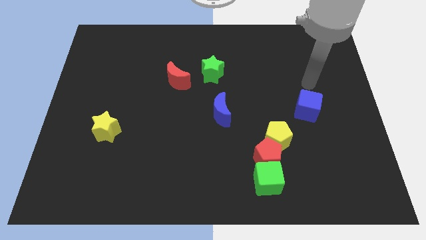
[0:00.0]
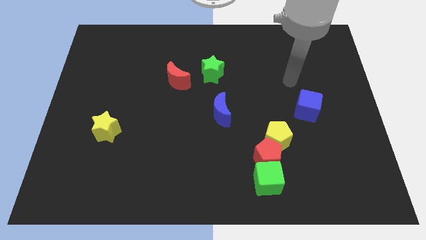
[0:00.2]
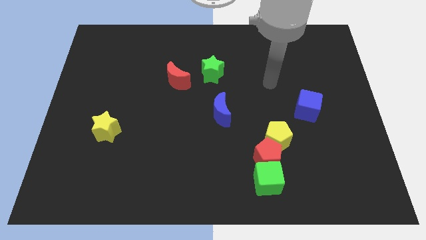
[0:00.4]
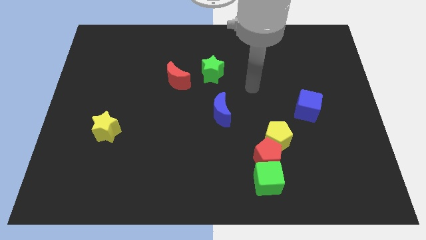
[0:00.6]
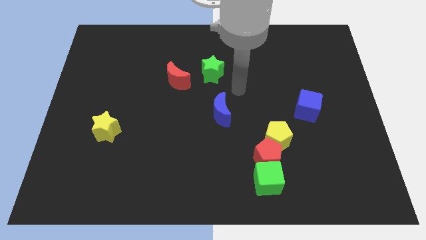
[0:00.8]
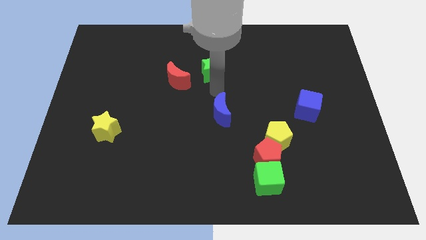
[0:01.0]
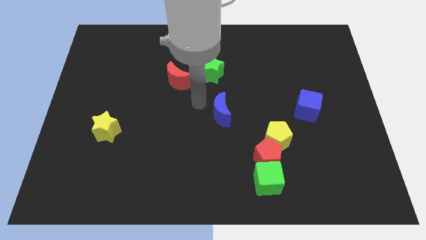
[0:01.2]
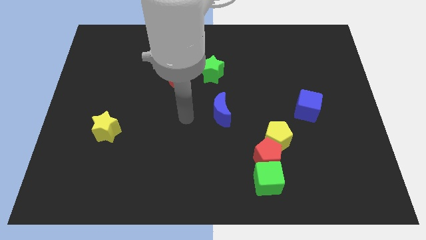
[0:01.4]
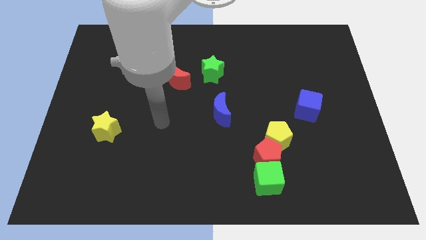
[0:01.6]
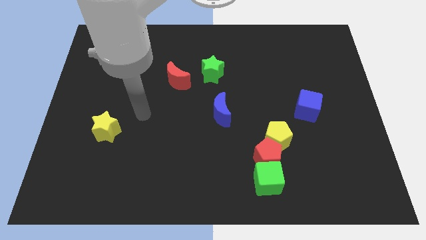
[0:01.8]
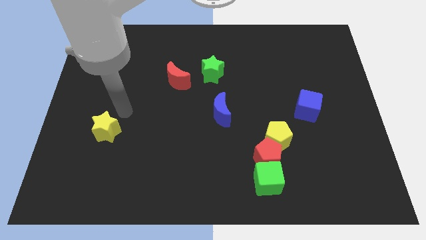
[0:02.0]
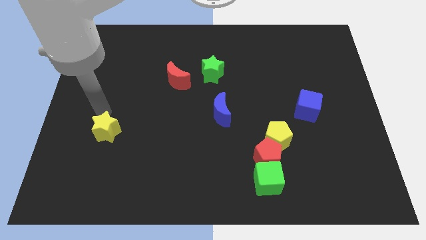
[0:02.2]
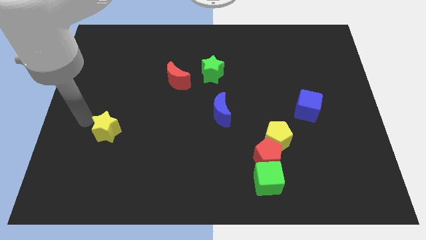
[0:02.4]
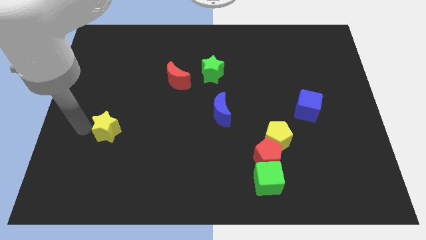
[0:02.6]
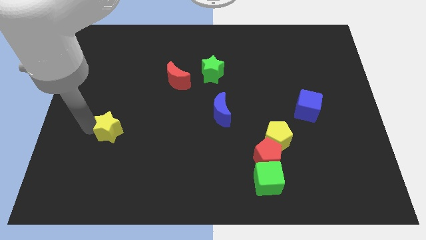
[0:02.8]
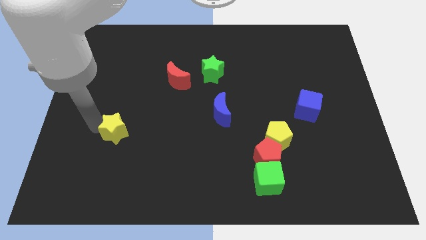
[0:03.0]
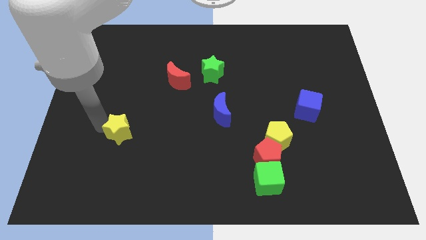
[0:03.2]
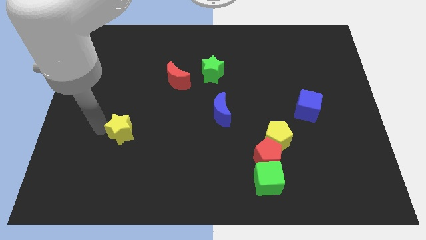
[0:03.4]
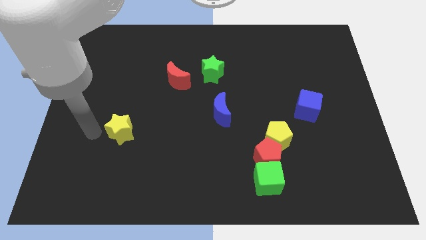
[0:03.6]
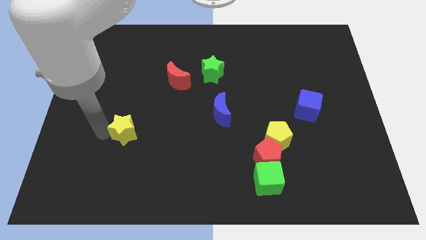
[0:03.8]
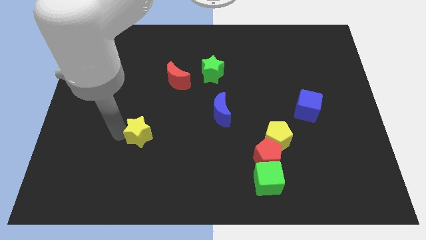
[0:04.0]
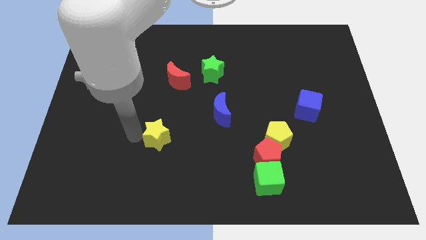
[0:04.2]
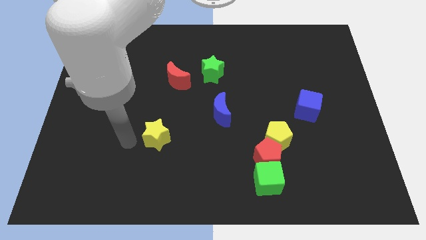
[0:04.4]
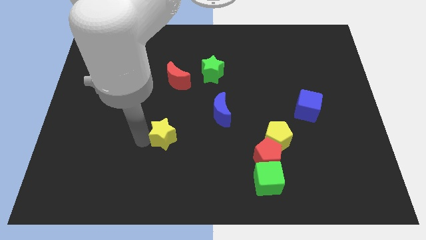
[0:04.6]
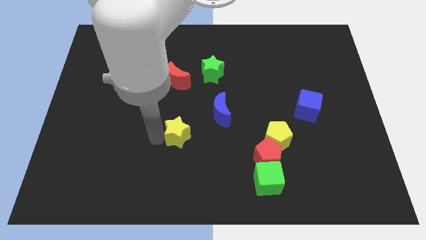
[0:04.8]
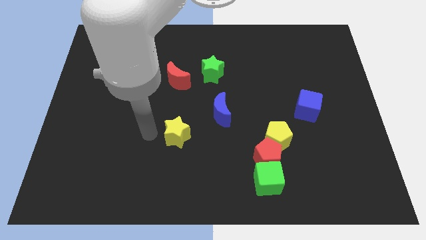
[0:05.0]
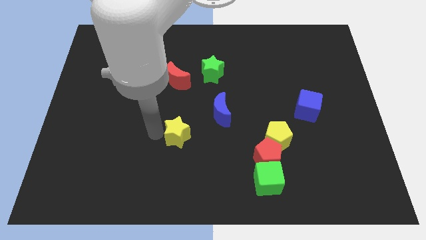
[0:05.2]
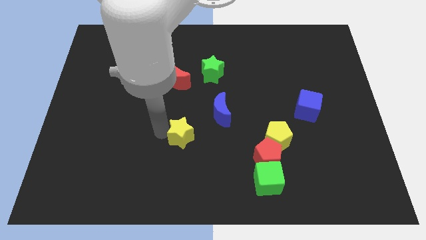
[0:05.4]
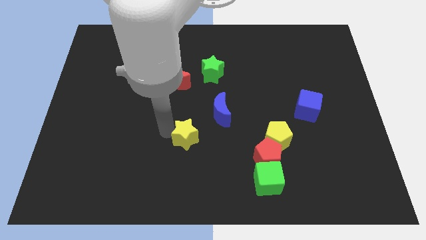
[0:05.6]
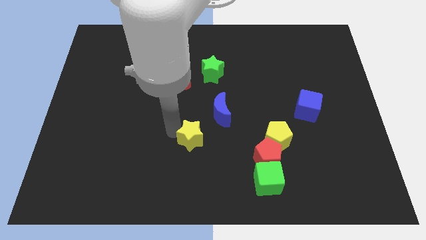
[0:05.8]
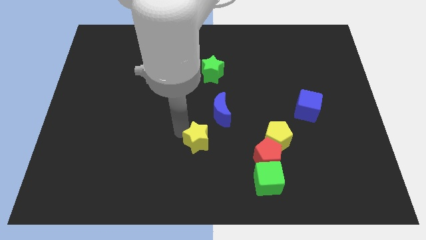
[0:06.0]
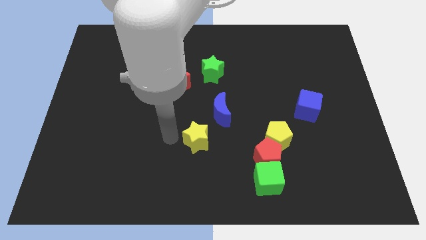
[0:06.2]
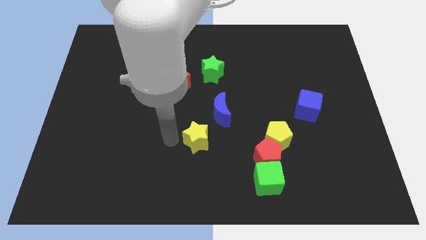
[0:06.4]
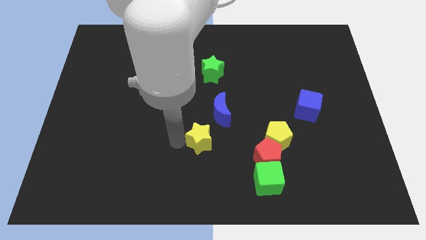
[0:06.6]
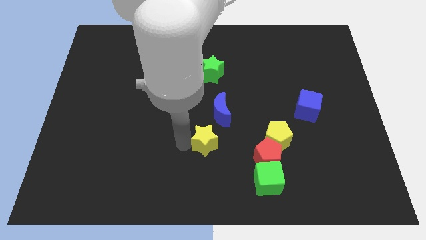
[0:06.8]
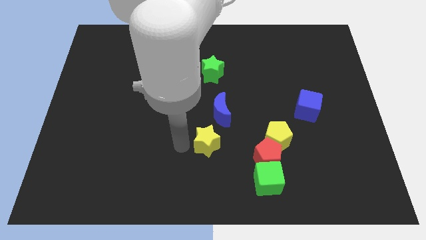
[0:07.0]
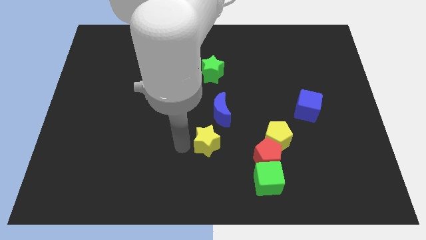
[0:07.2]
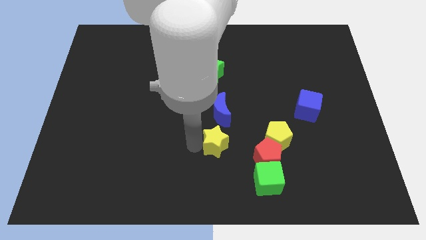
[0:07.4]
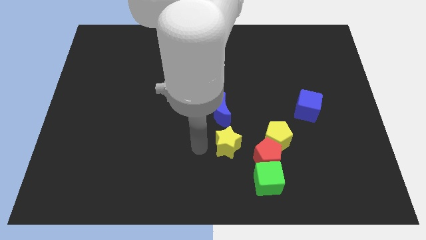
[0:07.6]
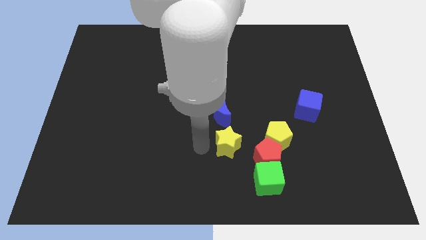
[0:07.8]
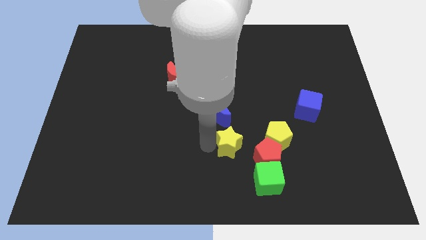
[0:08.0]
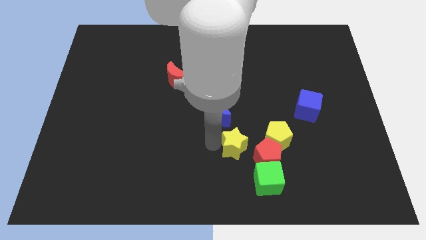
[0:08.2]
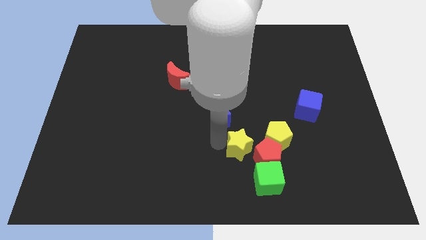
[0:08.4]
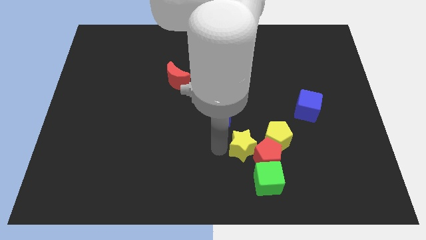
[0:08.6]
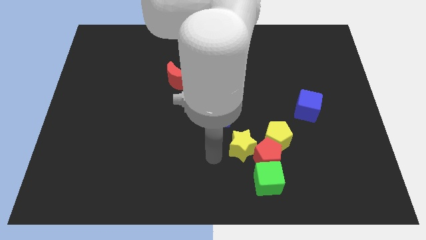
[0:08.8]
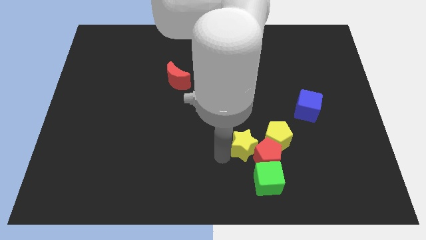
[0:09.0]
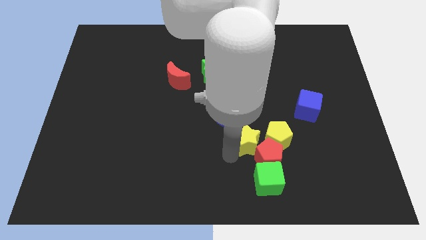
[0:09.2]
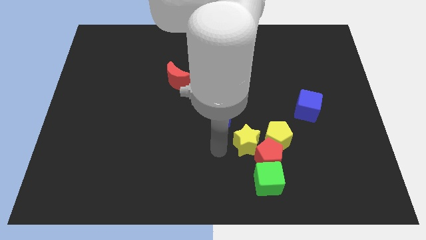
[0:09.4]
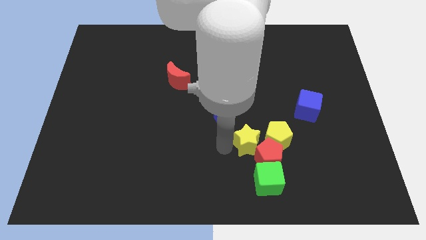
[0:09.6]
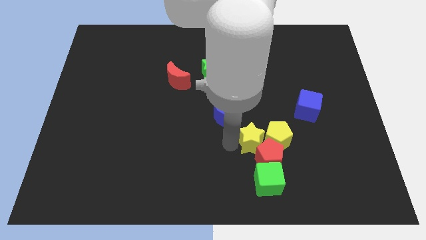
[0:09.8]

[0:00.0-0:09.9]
push the yellow star close to the yellow pentagon

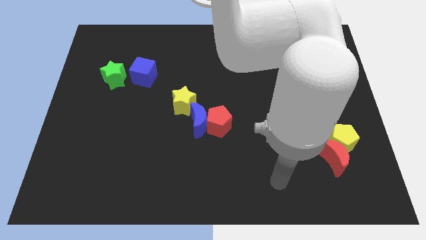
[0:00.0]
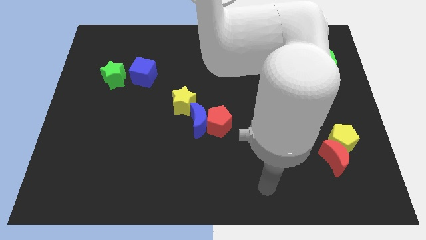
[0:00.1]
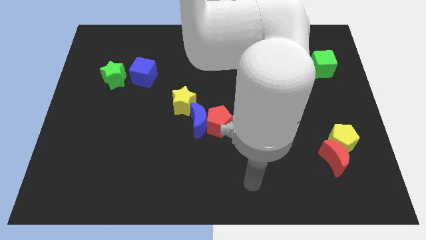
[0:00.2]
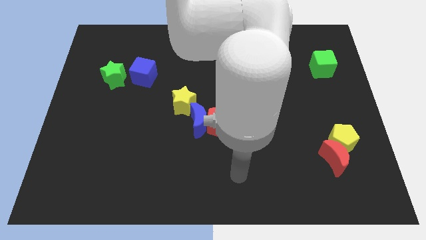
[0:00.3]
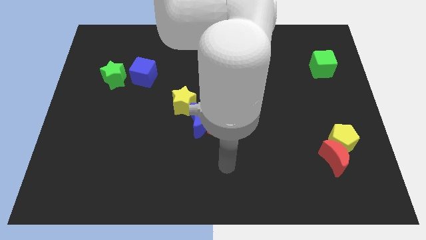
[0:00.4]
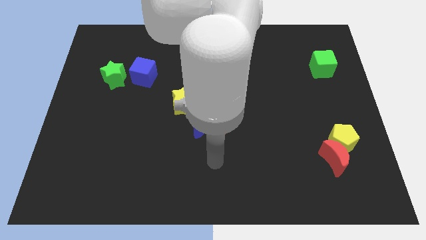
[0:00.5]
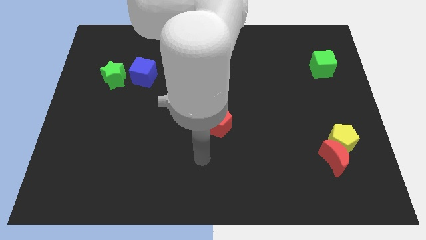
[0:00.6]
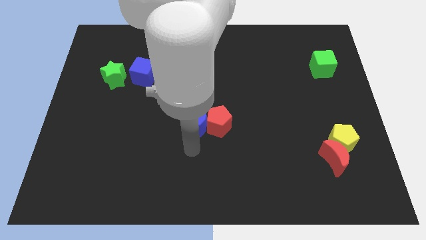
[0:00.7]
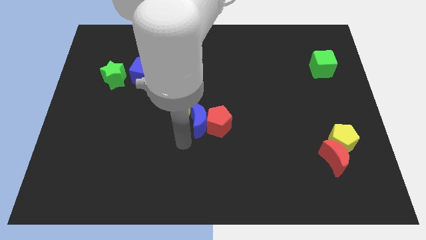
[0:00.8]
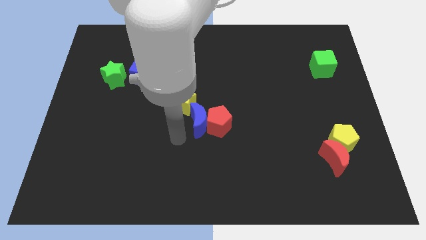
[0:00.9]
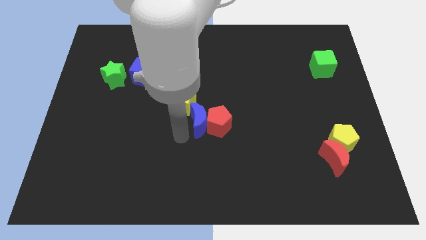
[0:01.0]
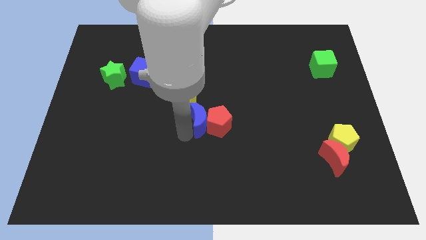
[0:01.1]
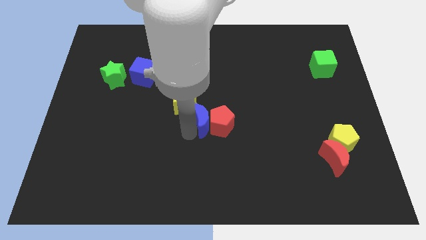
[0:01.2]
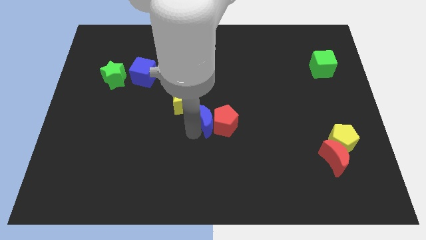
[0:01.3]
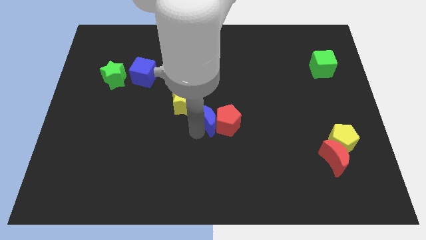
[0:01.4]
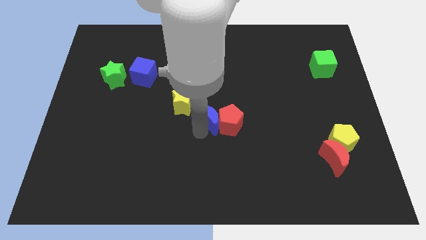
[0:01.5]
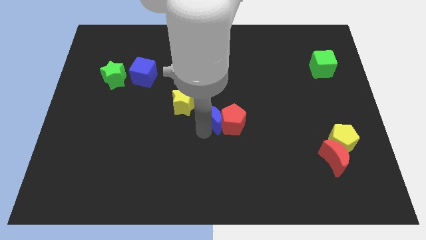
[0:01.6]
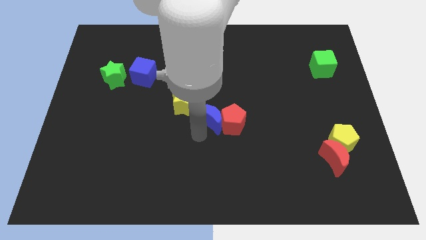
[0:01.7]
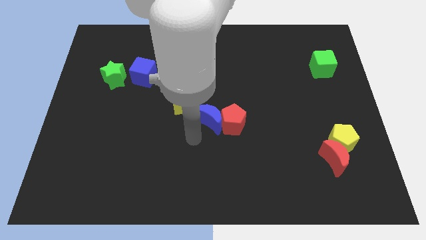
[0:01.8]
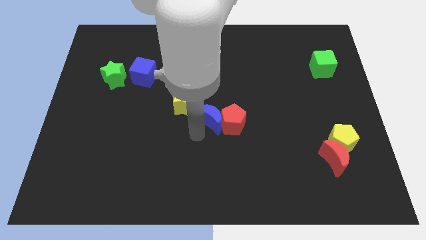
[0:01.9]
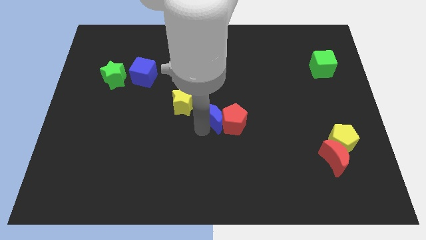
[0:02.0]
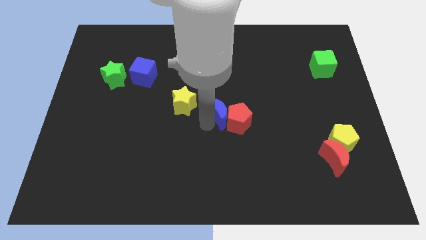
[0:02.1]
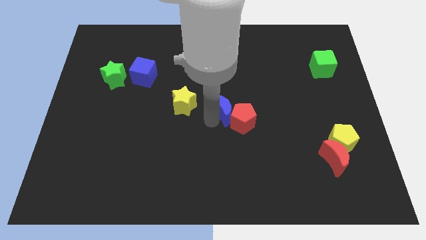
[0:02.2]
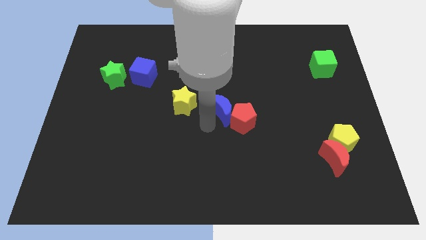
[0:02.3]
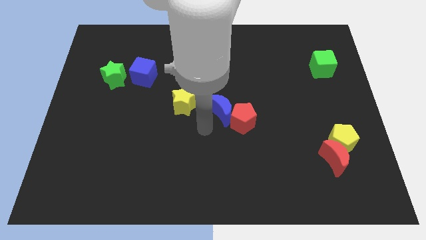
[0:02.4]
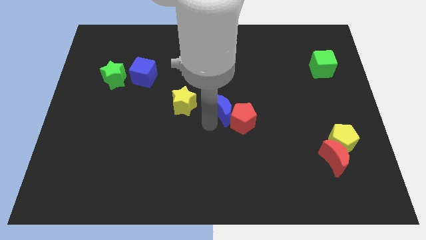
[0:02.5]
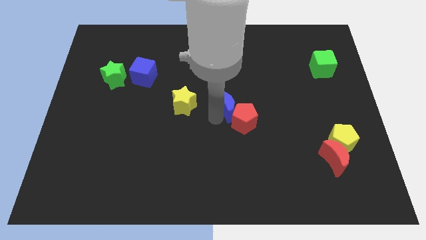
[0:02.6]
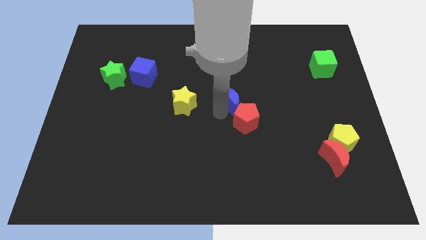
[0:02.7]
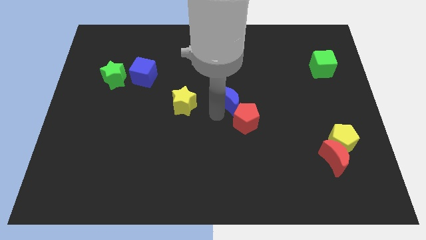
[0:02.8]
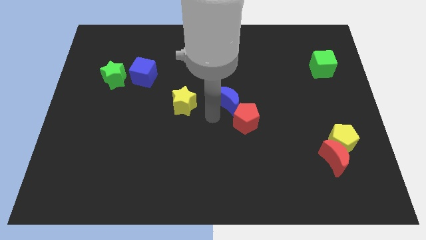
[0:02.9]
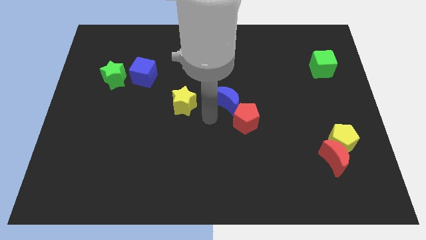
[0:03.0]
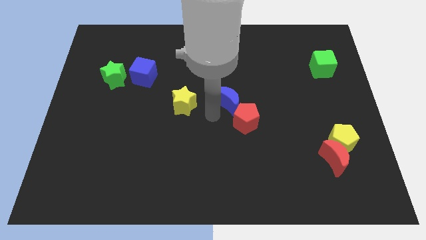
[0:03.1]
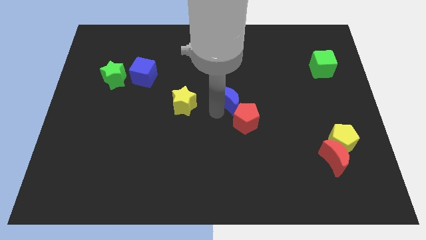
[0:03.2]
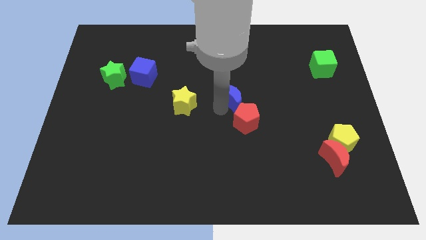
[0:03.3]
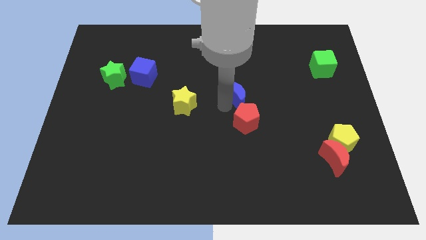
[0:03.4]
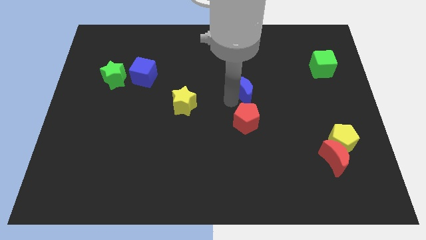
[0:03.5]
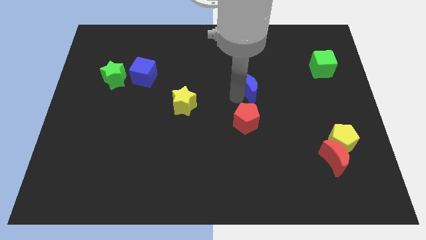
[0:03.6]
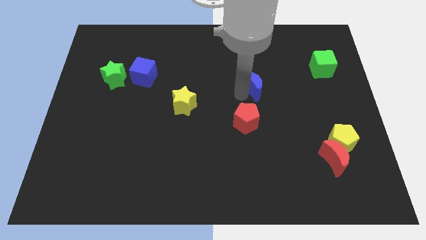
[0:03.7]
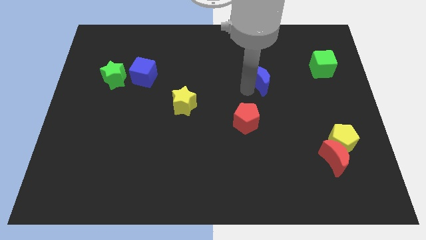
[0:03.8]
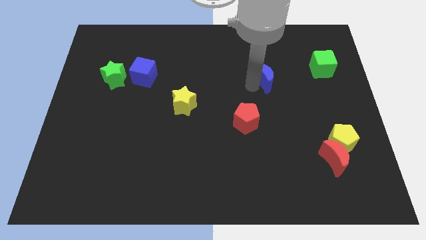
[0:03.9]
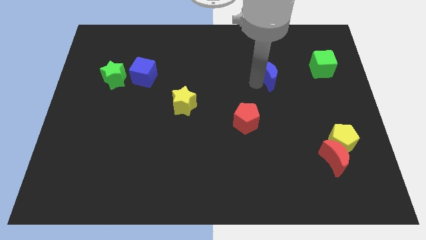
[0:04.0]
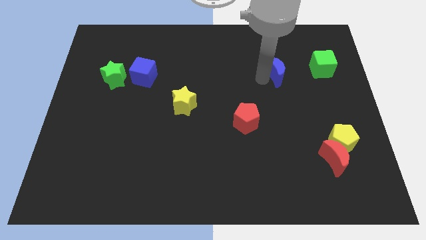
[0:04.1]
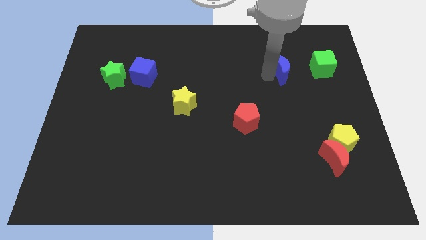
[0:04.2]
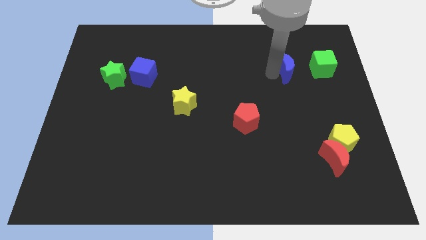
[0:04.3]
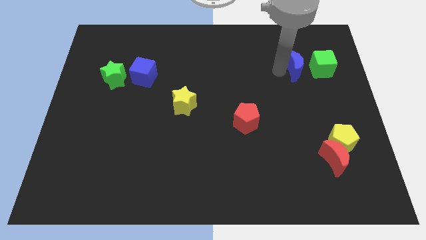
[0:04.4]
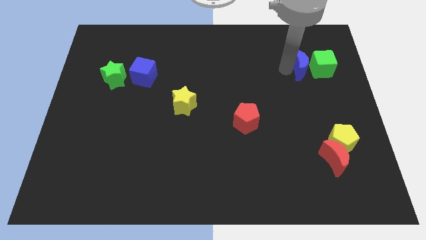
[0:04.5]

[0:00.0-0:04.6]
put the blue moon next to the green cube
